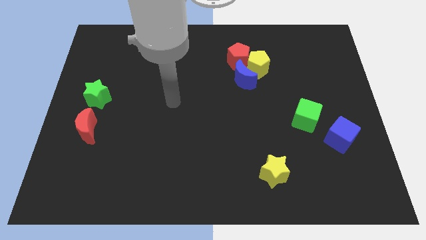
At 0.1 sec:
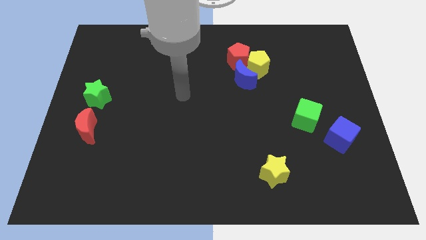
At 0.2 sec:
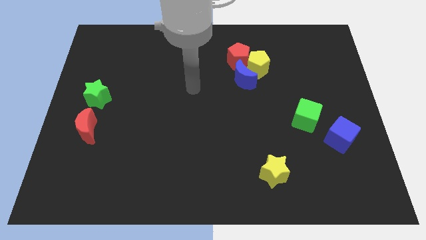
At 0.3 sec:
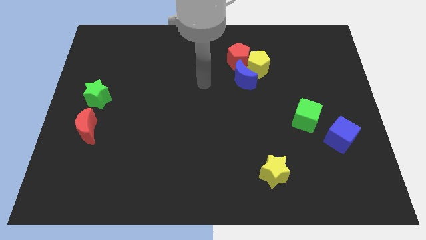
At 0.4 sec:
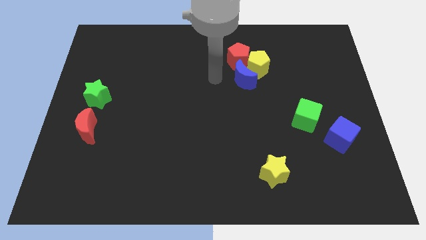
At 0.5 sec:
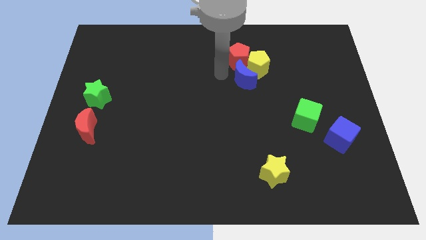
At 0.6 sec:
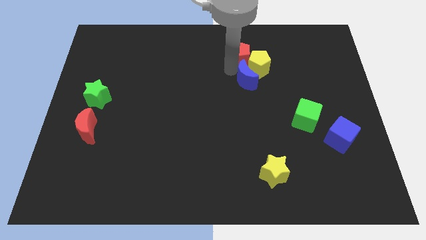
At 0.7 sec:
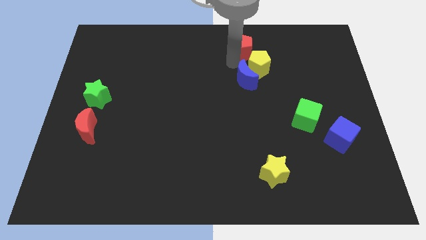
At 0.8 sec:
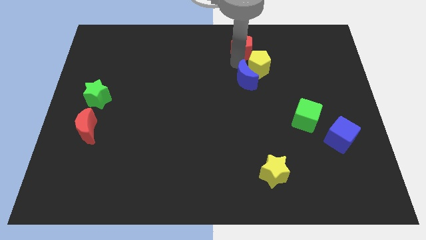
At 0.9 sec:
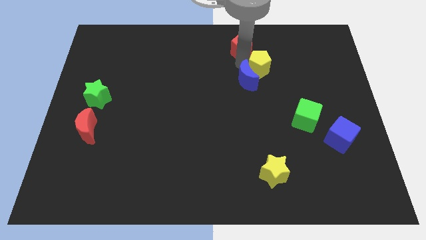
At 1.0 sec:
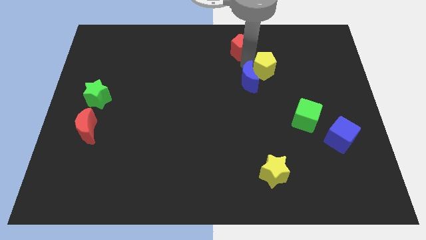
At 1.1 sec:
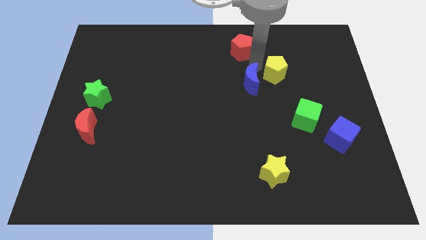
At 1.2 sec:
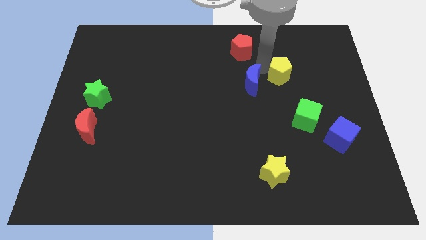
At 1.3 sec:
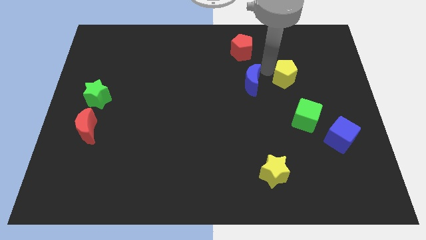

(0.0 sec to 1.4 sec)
move the yellow pentagon away from the red pentagon and blue moon

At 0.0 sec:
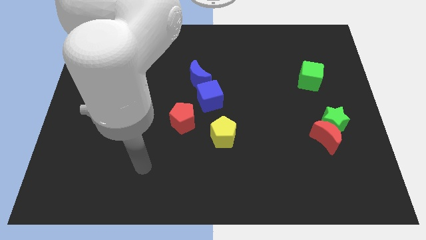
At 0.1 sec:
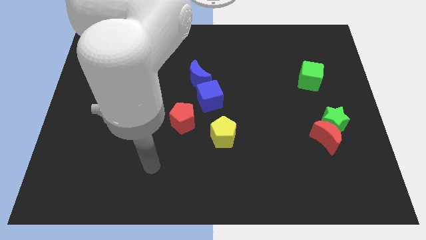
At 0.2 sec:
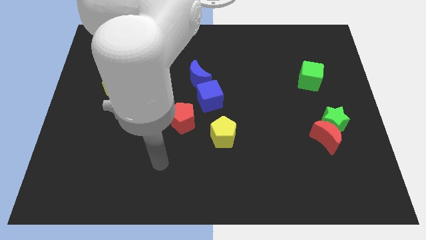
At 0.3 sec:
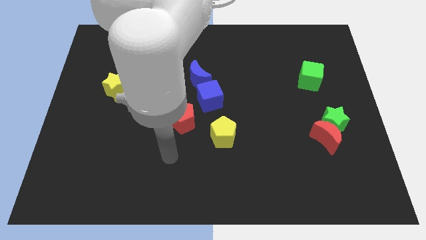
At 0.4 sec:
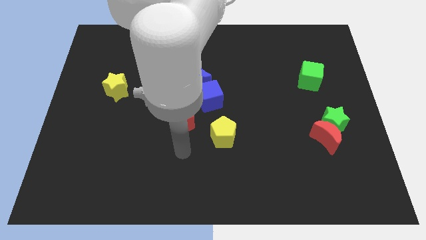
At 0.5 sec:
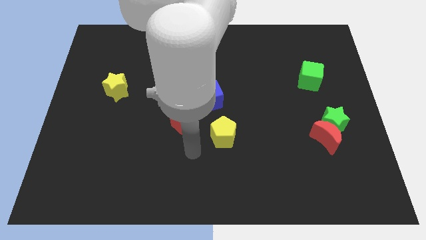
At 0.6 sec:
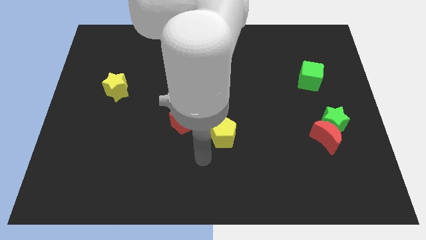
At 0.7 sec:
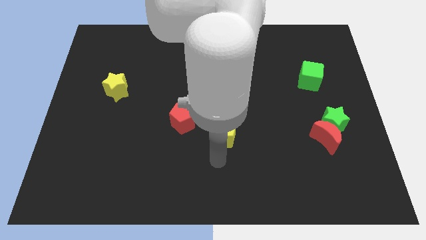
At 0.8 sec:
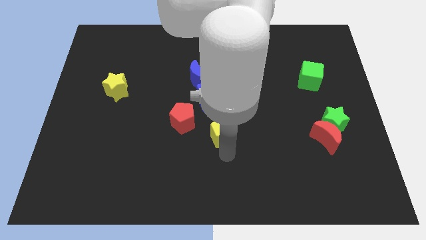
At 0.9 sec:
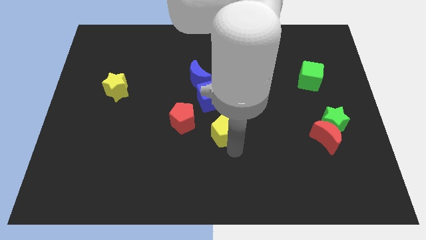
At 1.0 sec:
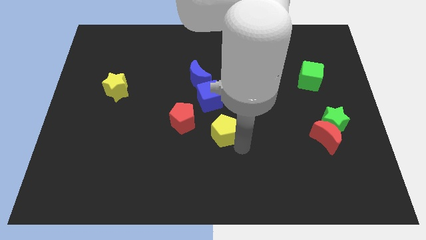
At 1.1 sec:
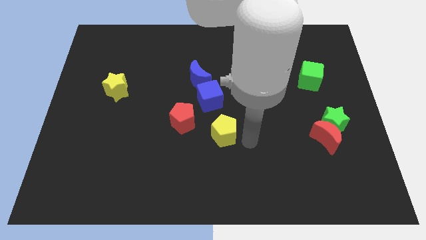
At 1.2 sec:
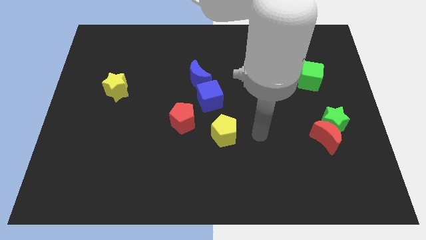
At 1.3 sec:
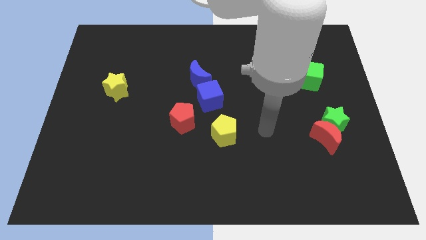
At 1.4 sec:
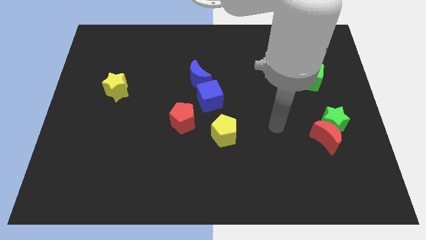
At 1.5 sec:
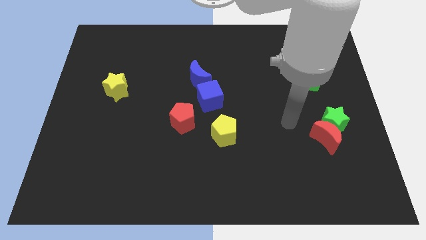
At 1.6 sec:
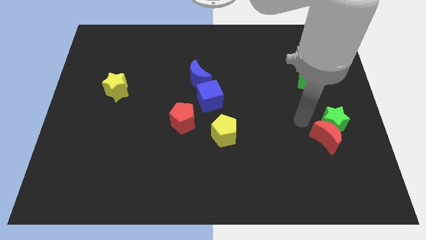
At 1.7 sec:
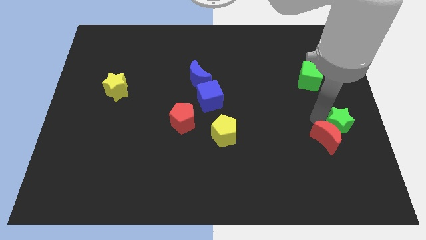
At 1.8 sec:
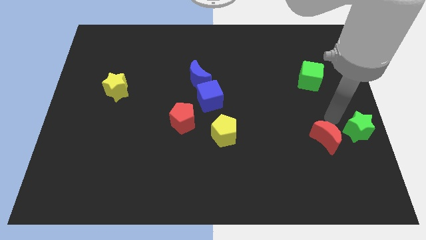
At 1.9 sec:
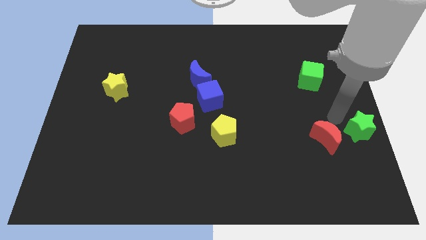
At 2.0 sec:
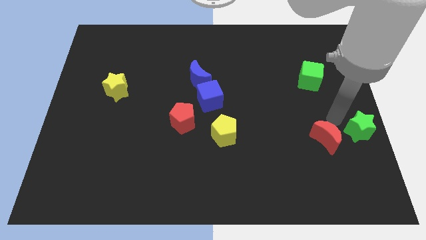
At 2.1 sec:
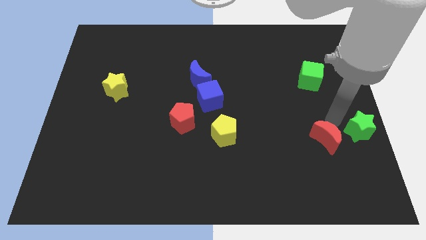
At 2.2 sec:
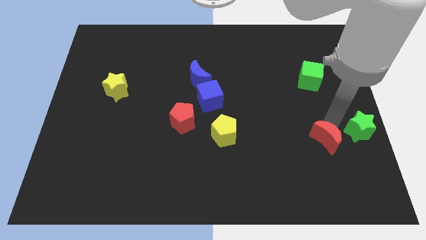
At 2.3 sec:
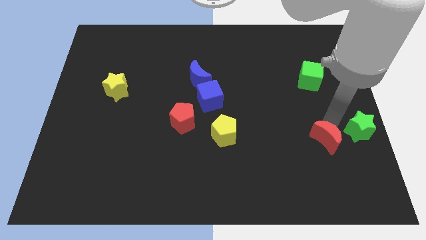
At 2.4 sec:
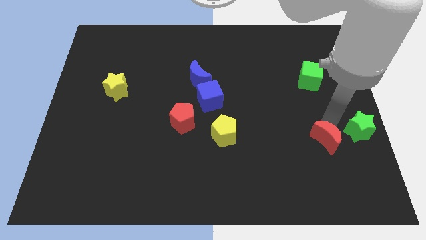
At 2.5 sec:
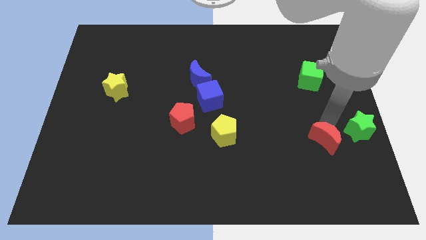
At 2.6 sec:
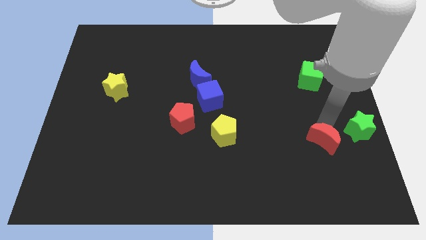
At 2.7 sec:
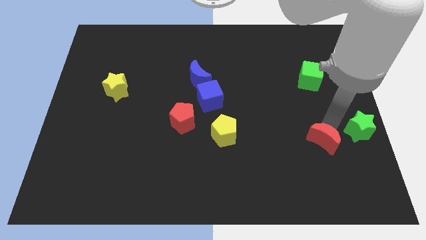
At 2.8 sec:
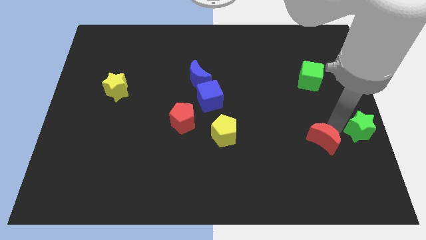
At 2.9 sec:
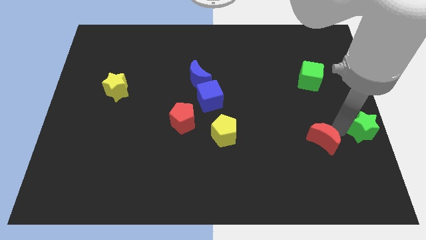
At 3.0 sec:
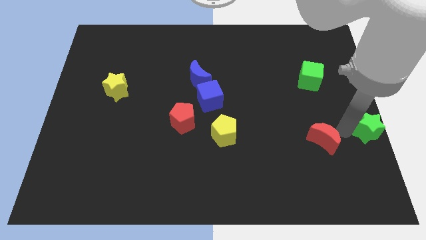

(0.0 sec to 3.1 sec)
pull the red moon apart from the green star

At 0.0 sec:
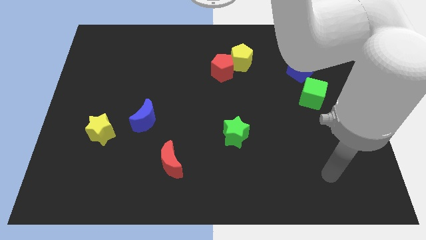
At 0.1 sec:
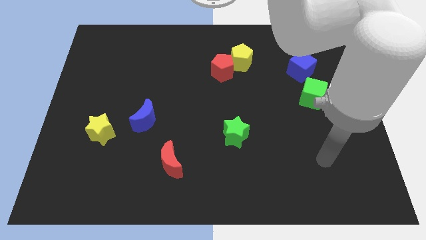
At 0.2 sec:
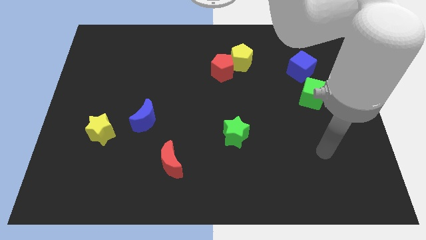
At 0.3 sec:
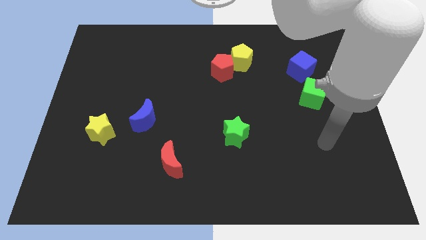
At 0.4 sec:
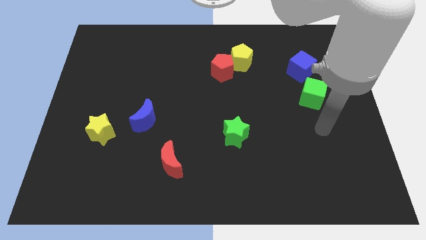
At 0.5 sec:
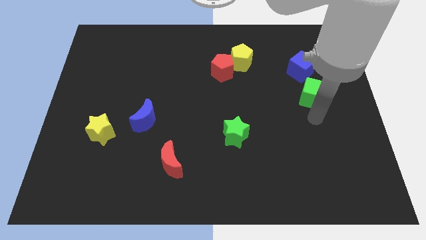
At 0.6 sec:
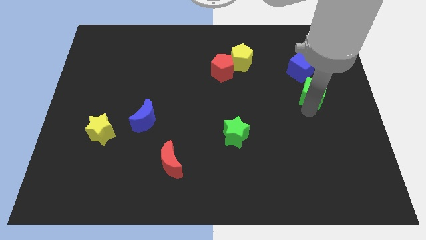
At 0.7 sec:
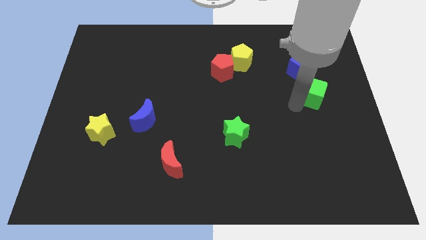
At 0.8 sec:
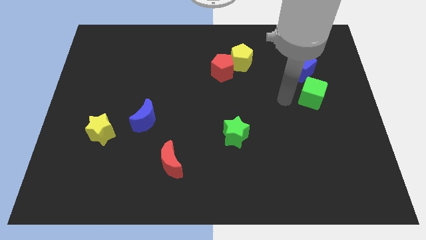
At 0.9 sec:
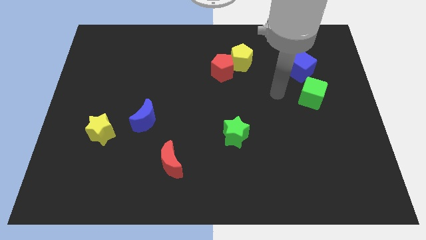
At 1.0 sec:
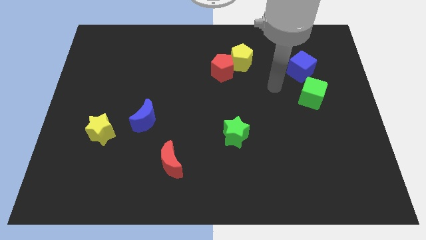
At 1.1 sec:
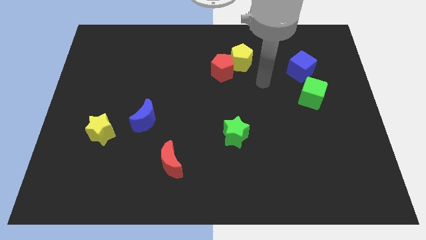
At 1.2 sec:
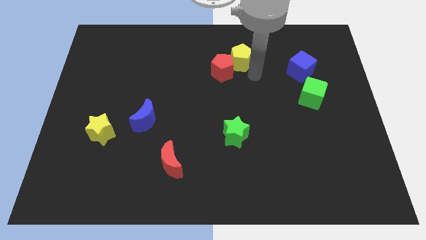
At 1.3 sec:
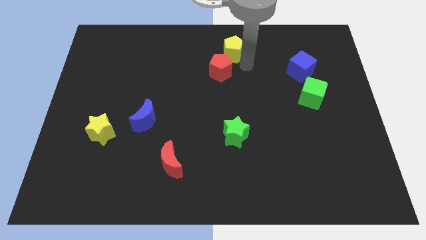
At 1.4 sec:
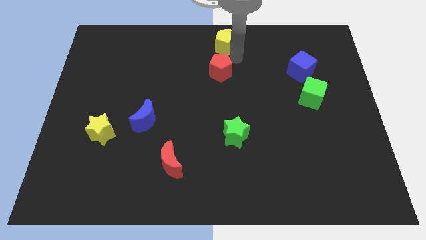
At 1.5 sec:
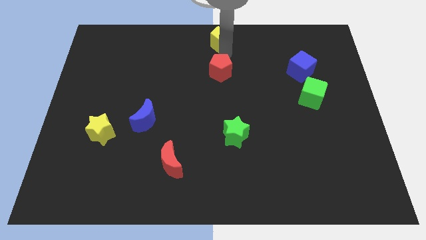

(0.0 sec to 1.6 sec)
move the red pentagon away from the yellow pentagon

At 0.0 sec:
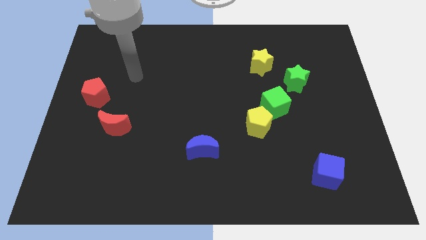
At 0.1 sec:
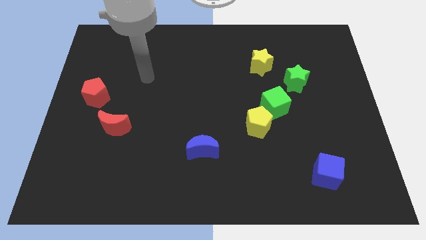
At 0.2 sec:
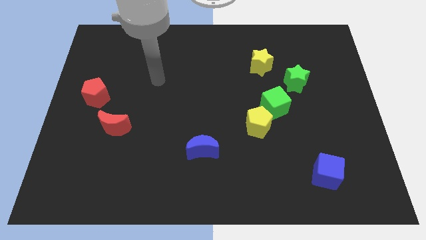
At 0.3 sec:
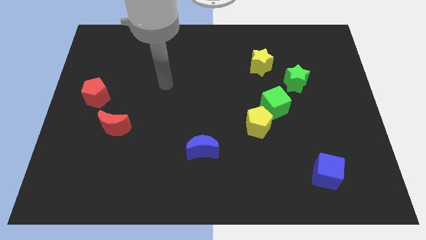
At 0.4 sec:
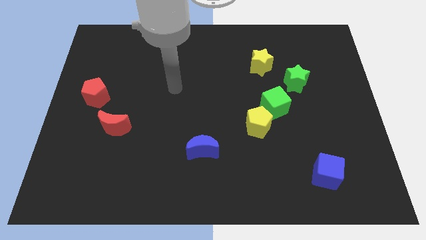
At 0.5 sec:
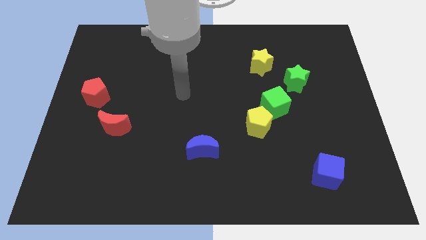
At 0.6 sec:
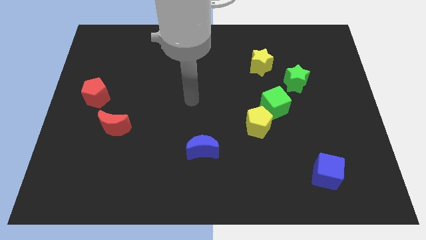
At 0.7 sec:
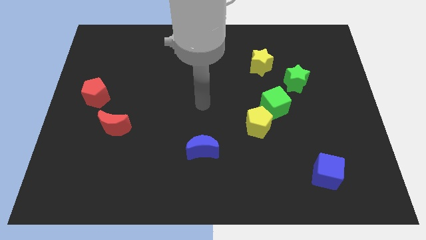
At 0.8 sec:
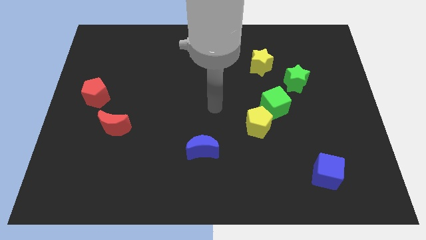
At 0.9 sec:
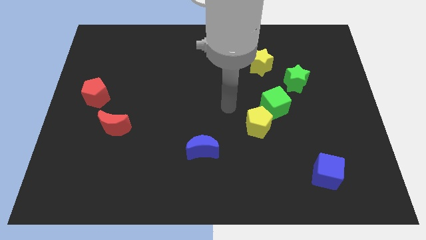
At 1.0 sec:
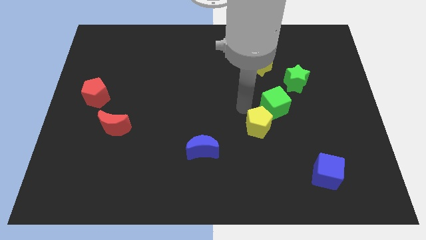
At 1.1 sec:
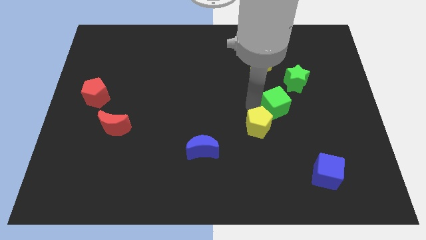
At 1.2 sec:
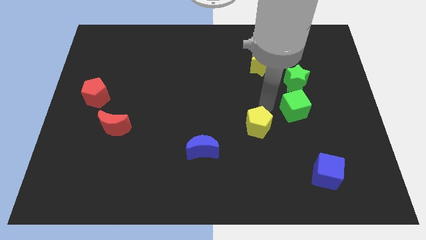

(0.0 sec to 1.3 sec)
pull the yellow pentagon apart from the green cube

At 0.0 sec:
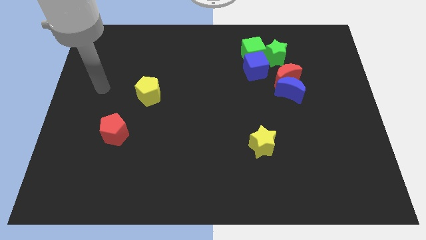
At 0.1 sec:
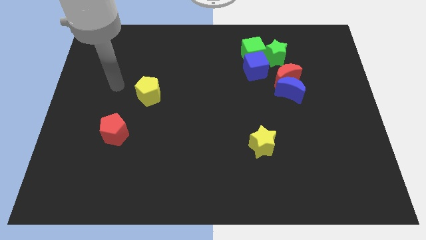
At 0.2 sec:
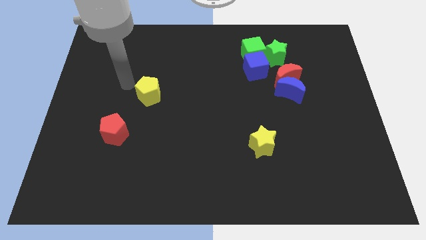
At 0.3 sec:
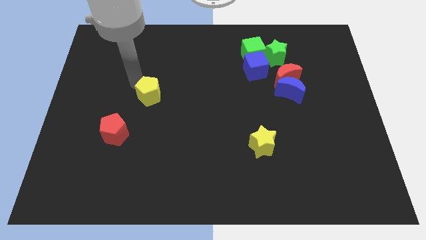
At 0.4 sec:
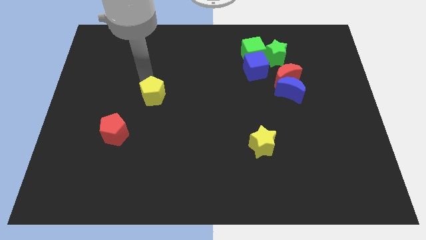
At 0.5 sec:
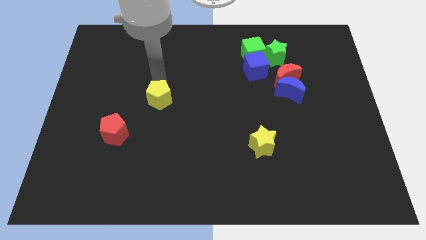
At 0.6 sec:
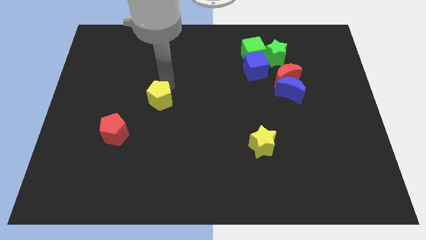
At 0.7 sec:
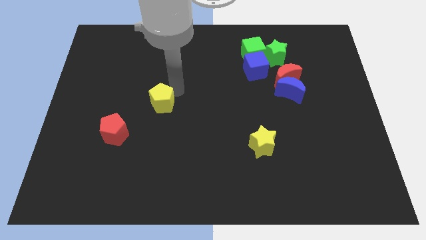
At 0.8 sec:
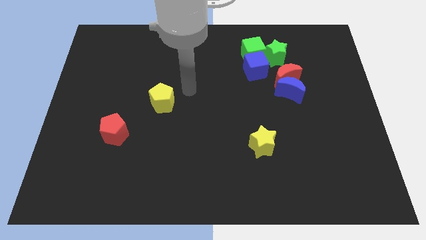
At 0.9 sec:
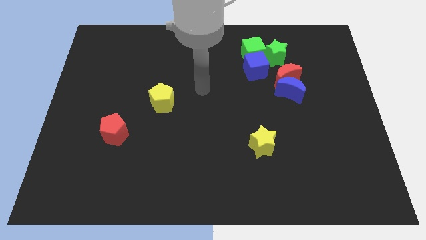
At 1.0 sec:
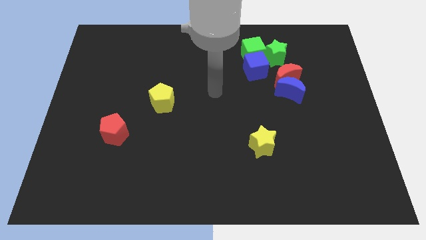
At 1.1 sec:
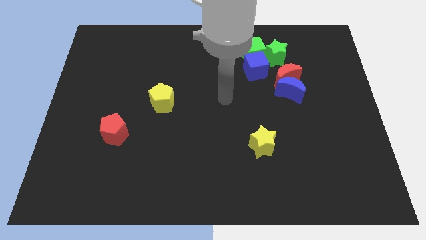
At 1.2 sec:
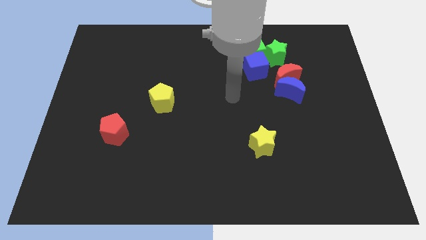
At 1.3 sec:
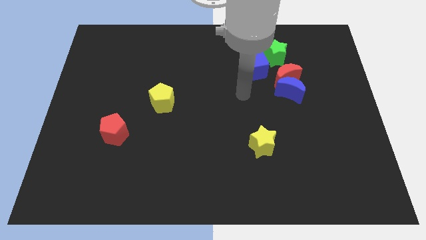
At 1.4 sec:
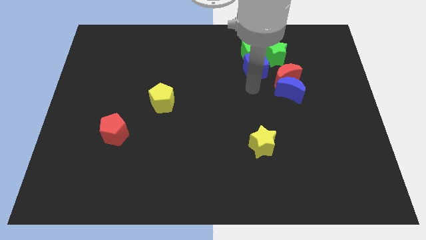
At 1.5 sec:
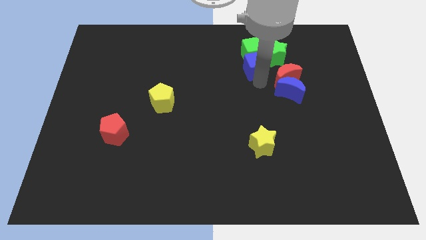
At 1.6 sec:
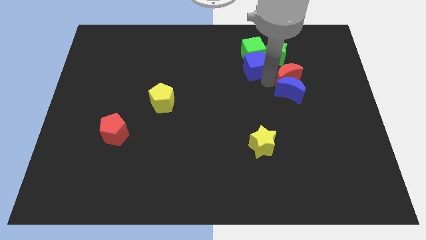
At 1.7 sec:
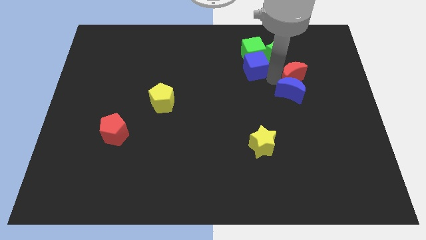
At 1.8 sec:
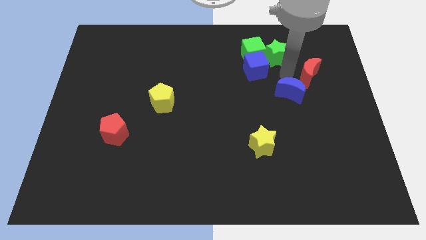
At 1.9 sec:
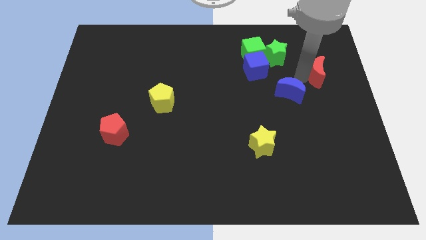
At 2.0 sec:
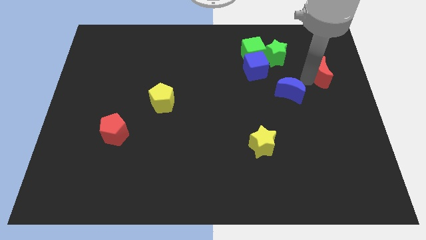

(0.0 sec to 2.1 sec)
pull the blue moon apart from the red moon
